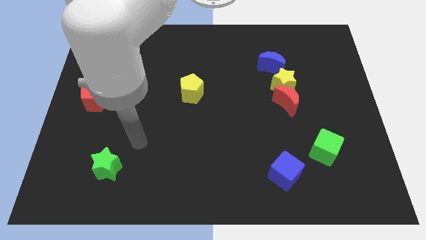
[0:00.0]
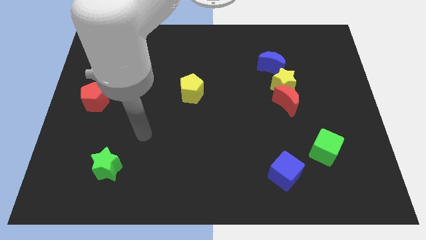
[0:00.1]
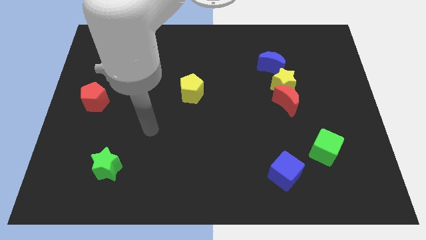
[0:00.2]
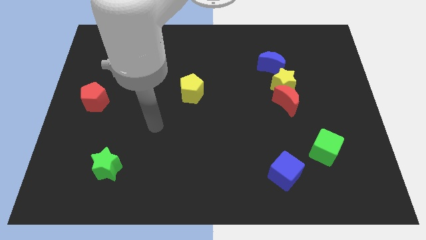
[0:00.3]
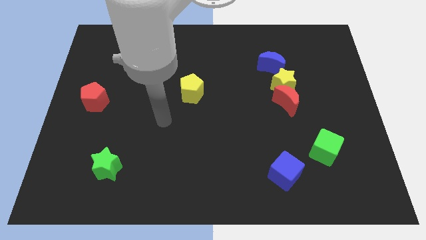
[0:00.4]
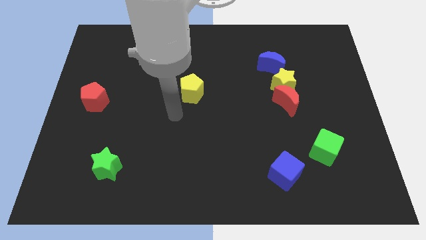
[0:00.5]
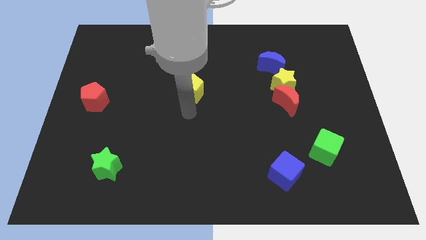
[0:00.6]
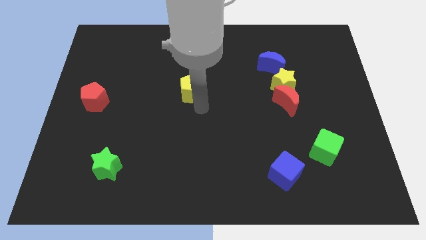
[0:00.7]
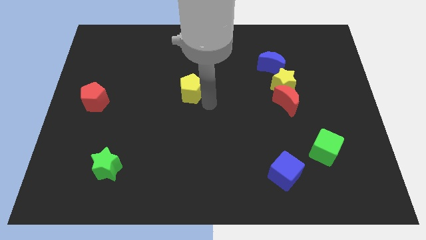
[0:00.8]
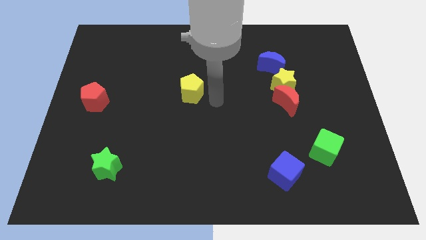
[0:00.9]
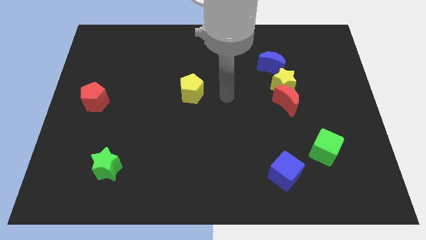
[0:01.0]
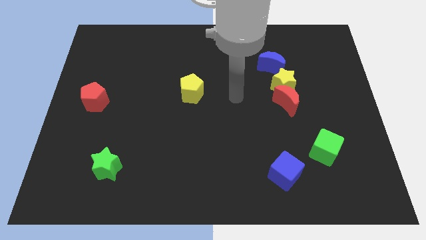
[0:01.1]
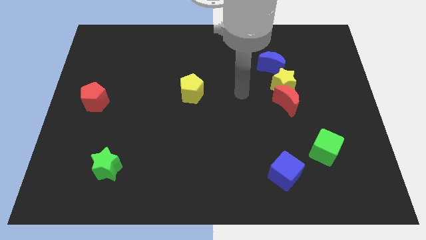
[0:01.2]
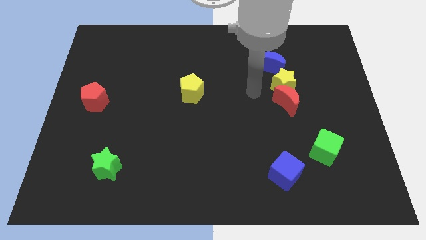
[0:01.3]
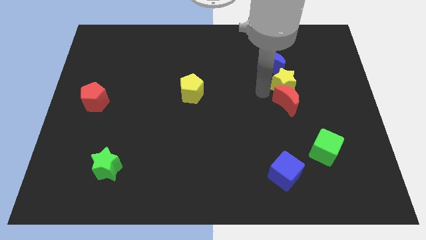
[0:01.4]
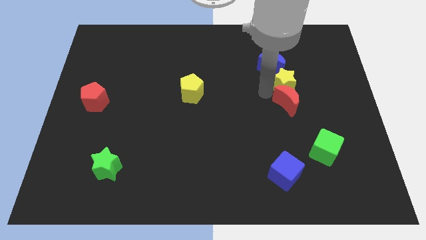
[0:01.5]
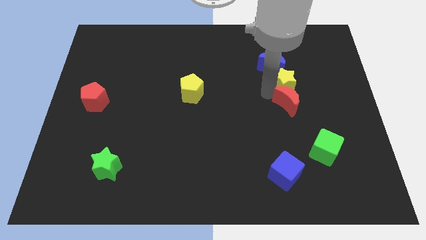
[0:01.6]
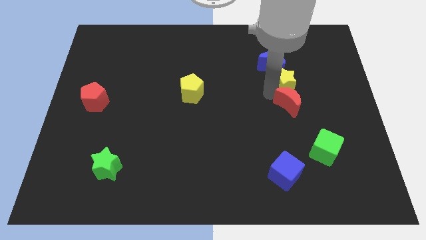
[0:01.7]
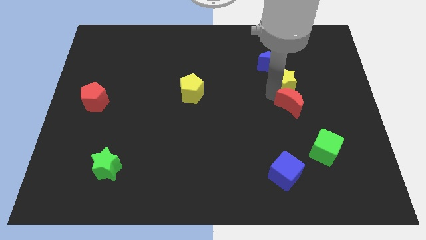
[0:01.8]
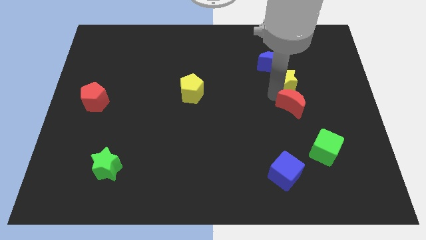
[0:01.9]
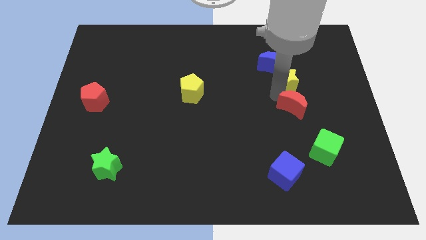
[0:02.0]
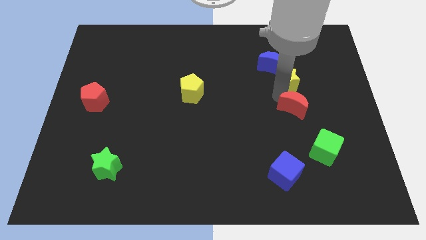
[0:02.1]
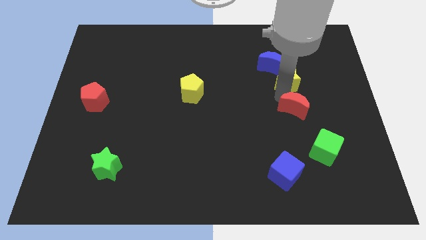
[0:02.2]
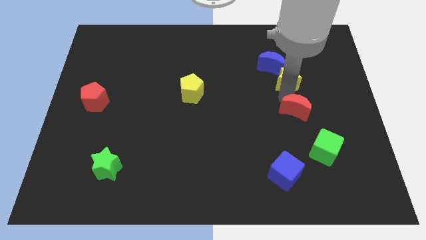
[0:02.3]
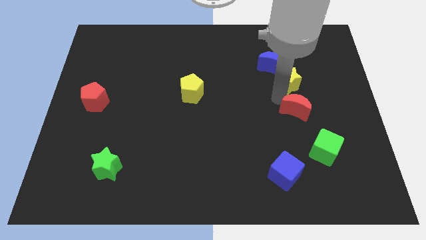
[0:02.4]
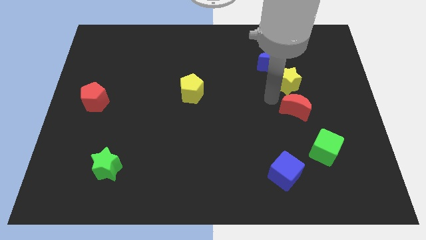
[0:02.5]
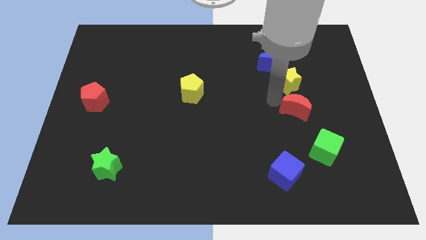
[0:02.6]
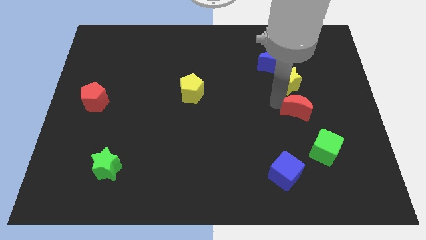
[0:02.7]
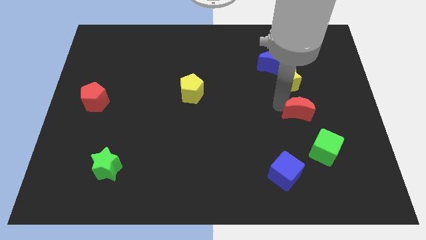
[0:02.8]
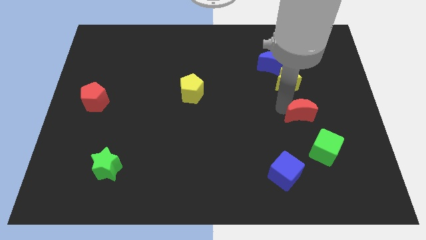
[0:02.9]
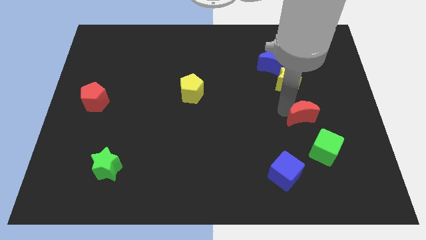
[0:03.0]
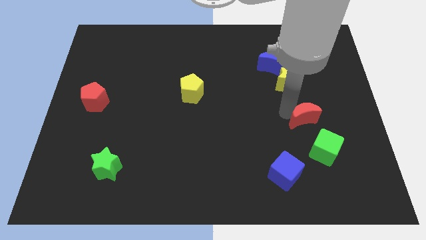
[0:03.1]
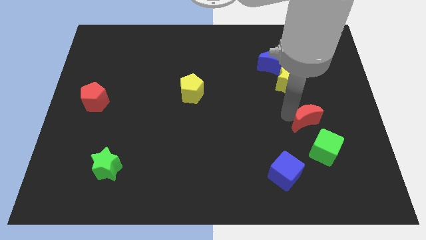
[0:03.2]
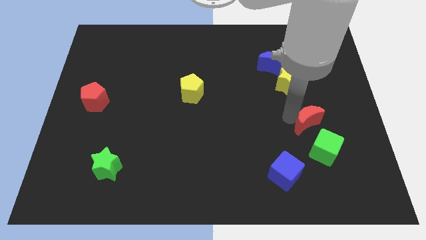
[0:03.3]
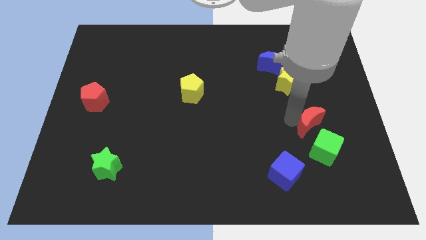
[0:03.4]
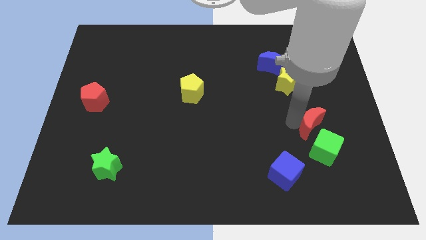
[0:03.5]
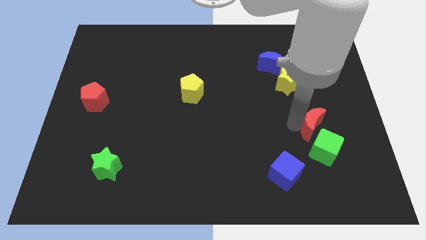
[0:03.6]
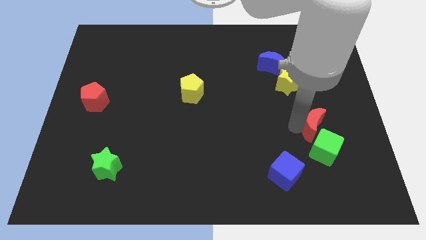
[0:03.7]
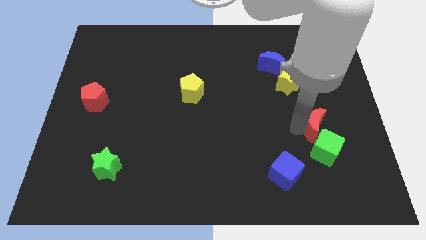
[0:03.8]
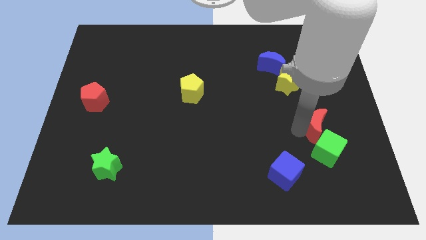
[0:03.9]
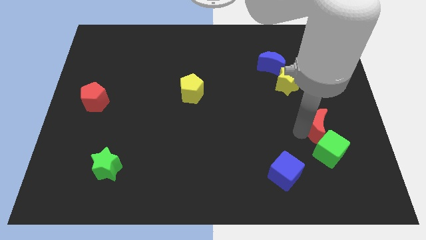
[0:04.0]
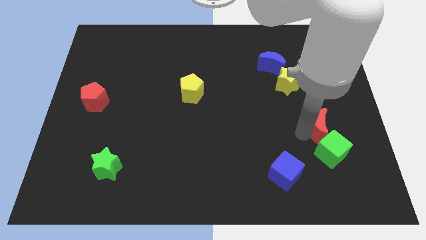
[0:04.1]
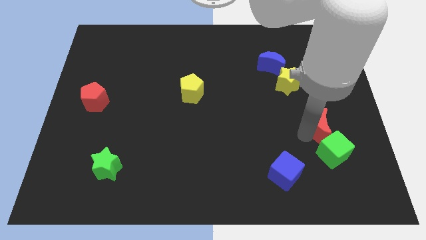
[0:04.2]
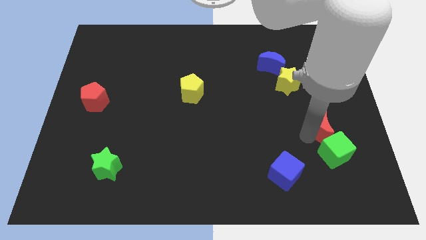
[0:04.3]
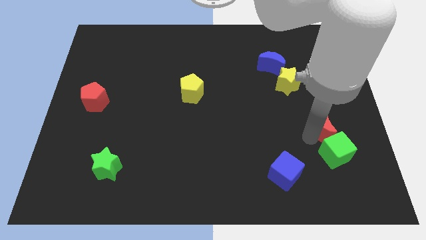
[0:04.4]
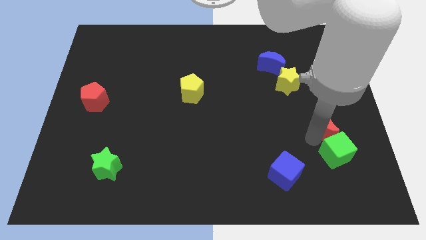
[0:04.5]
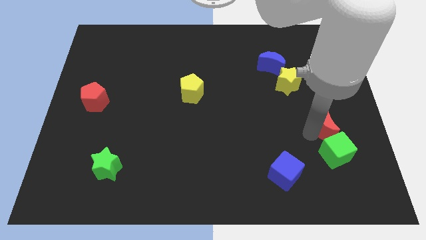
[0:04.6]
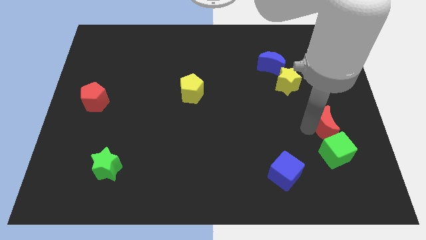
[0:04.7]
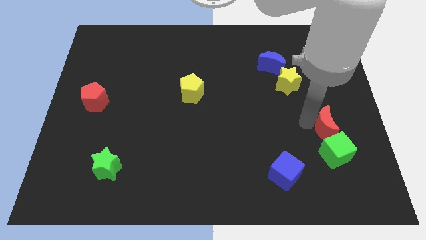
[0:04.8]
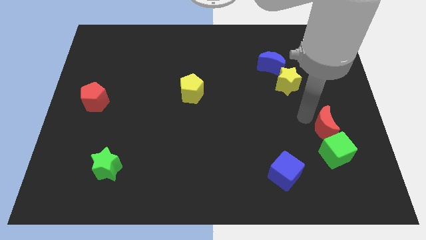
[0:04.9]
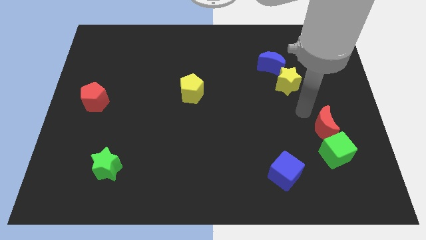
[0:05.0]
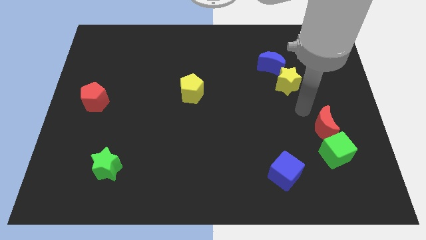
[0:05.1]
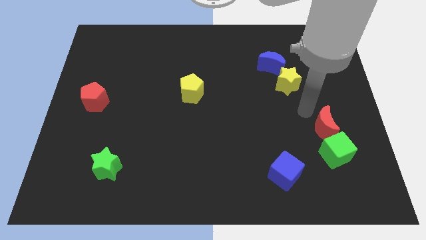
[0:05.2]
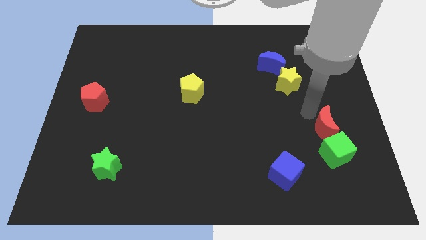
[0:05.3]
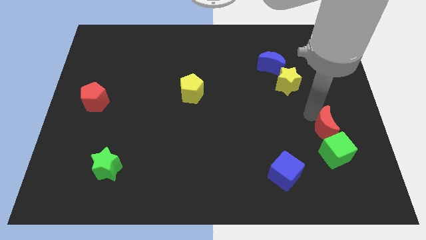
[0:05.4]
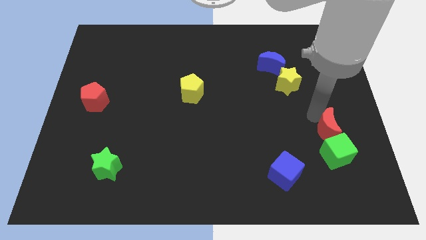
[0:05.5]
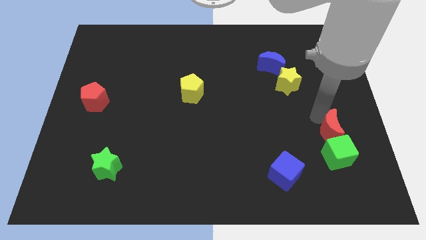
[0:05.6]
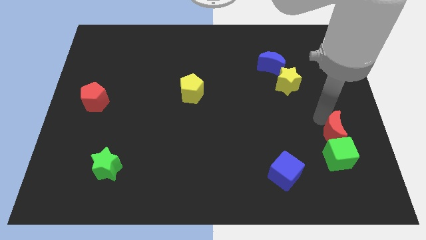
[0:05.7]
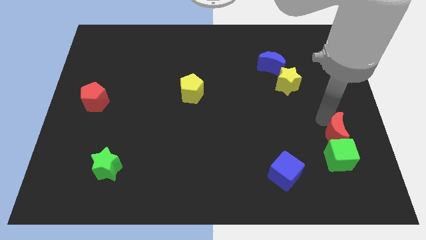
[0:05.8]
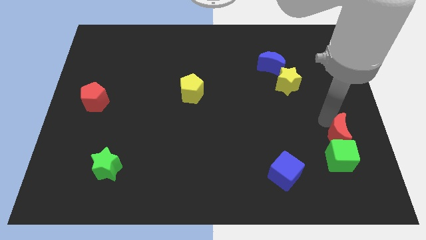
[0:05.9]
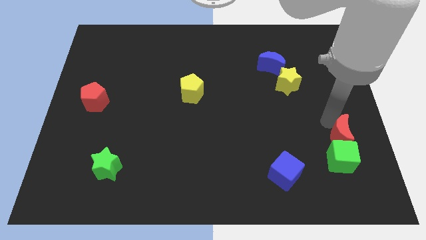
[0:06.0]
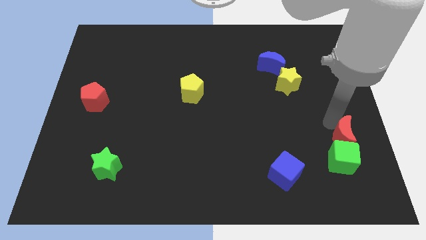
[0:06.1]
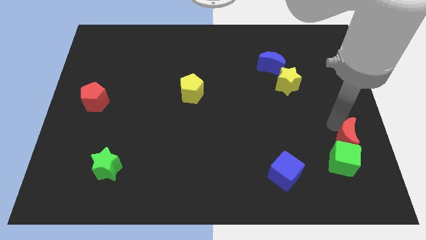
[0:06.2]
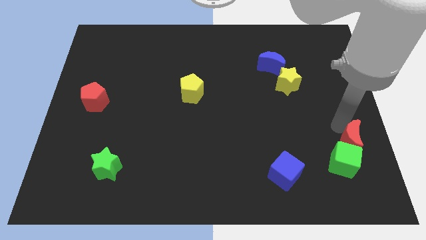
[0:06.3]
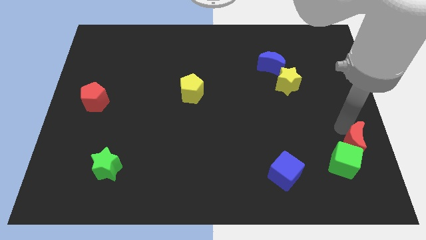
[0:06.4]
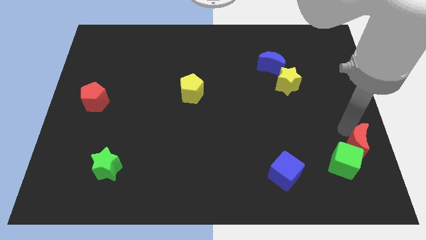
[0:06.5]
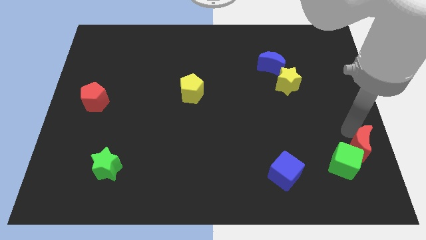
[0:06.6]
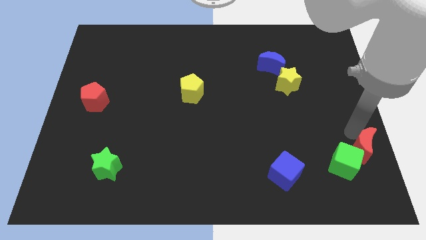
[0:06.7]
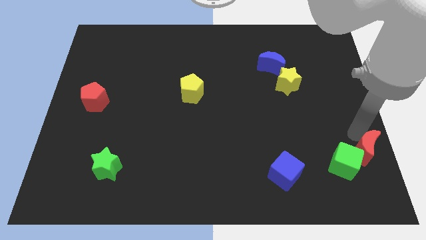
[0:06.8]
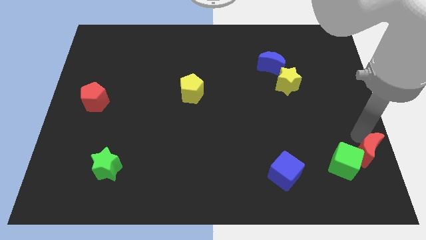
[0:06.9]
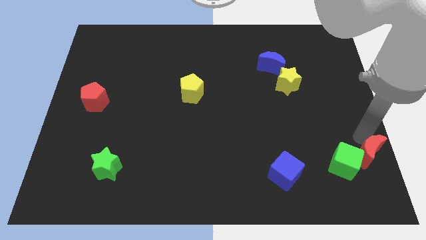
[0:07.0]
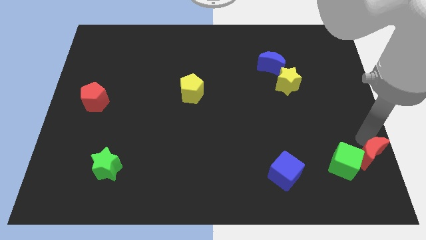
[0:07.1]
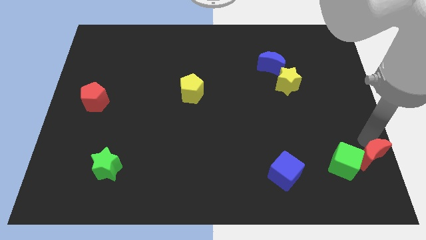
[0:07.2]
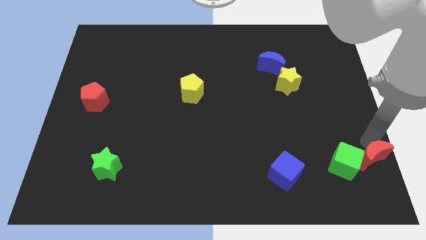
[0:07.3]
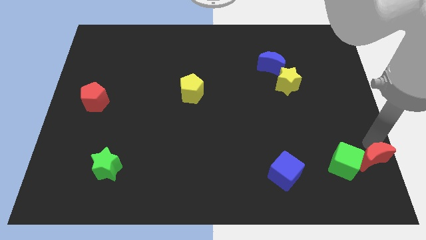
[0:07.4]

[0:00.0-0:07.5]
move the red moon to the bottom right
